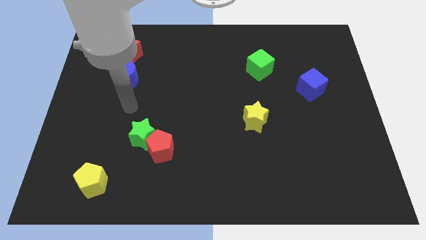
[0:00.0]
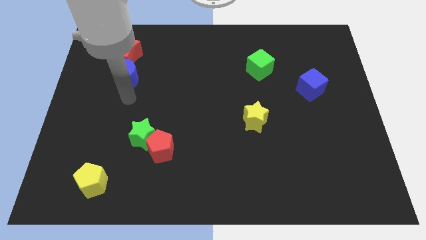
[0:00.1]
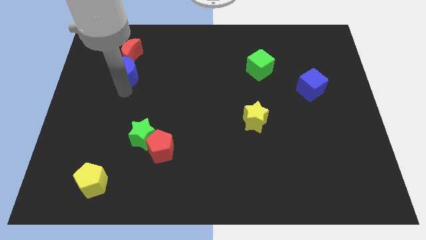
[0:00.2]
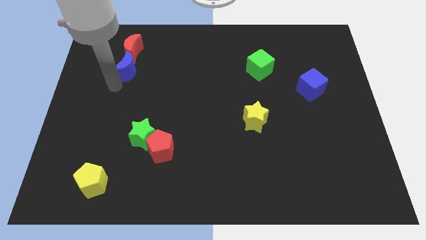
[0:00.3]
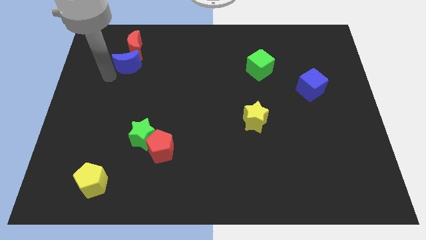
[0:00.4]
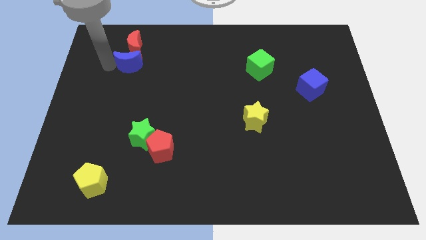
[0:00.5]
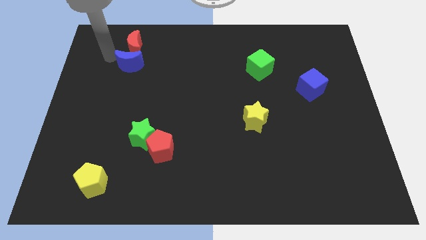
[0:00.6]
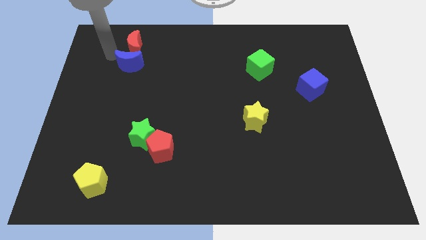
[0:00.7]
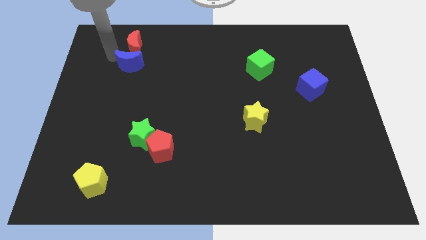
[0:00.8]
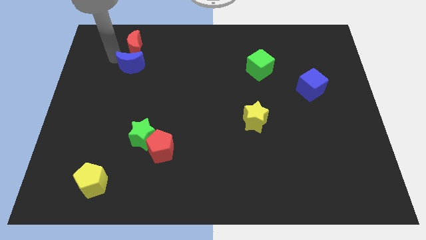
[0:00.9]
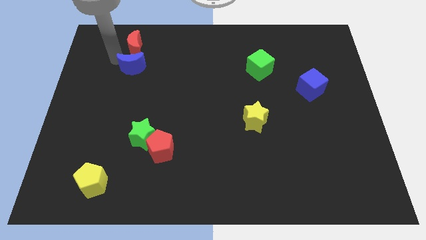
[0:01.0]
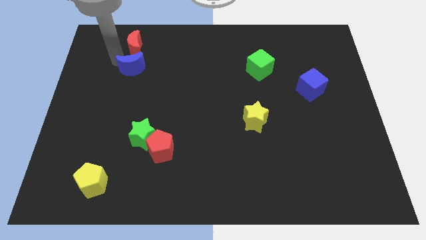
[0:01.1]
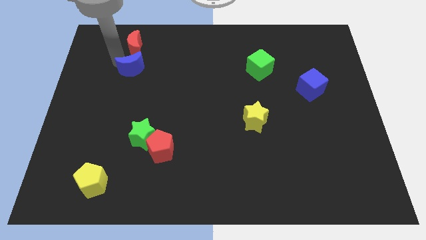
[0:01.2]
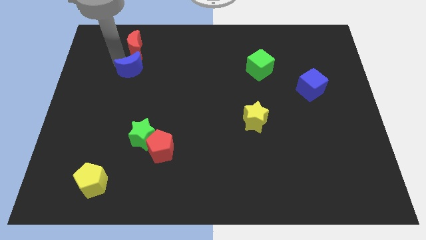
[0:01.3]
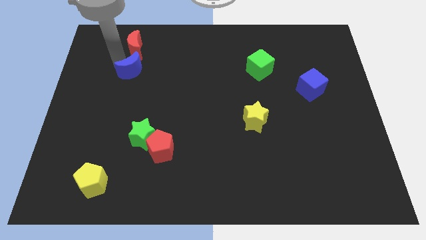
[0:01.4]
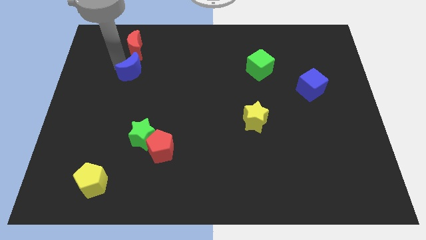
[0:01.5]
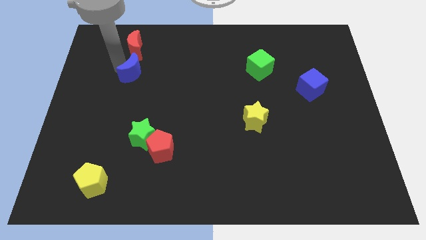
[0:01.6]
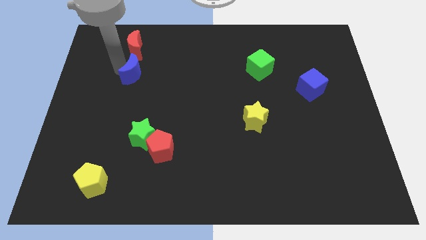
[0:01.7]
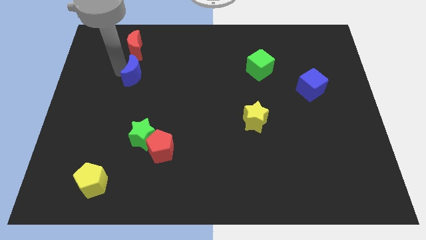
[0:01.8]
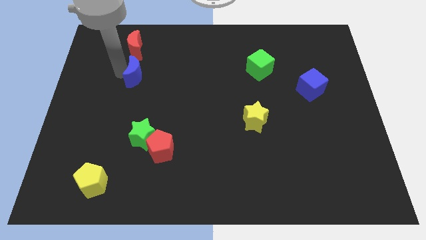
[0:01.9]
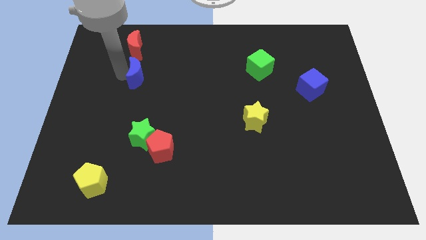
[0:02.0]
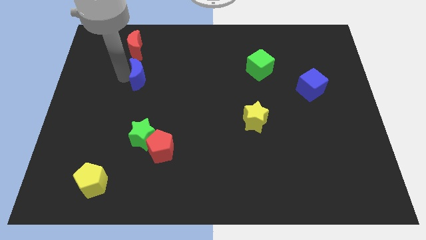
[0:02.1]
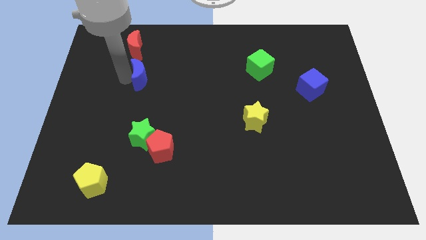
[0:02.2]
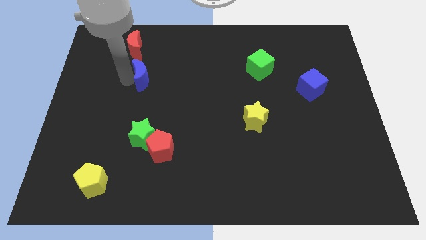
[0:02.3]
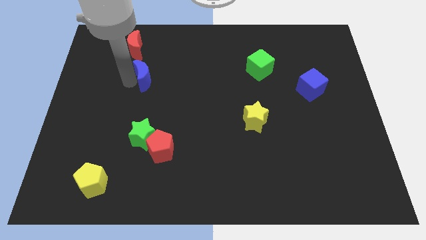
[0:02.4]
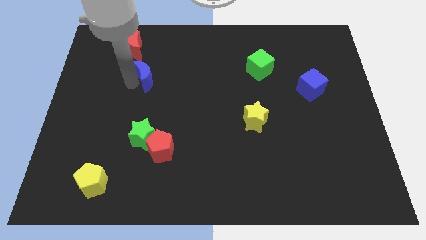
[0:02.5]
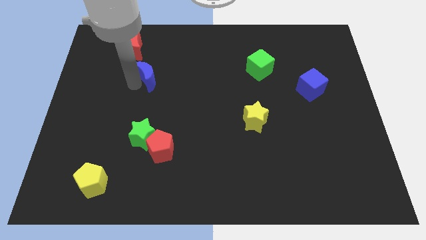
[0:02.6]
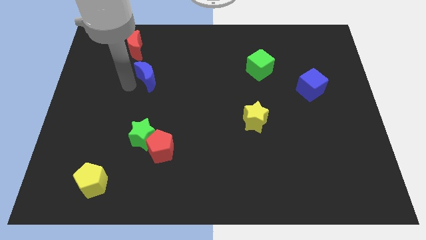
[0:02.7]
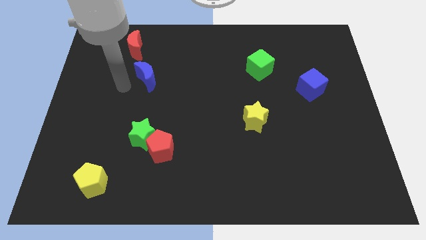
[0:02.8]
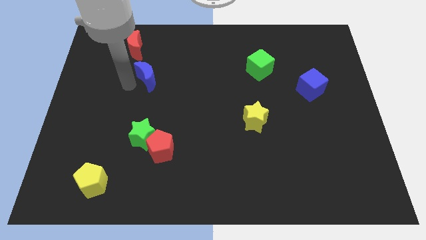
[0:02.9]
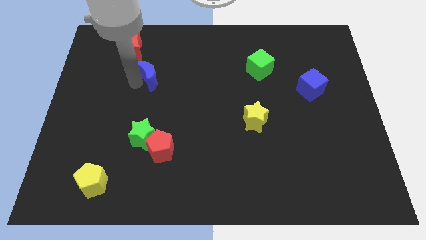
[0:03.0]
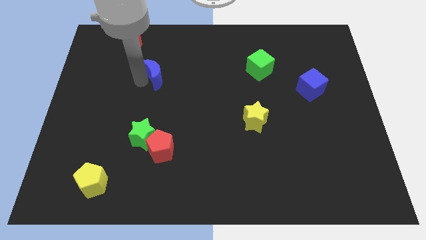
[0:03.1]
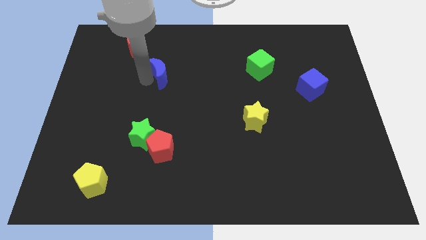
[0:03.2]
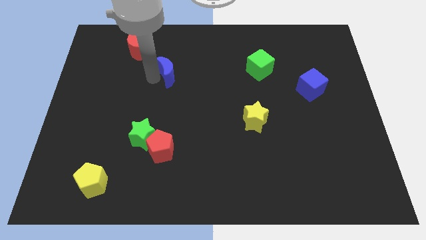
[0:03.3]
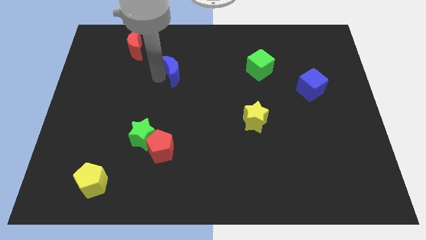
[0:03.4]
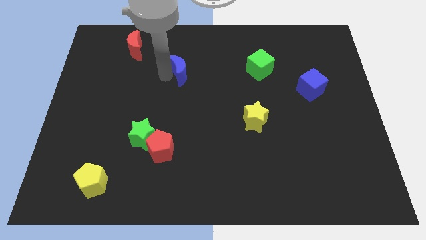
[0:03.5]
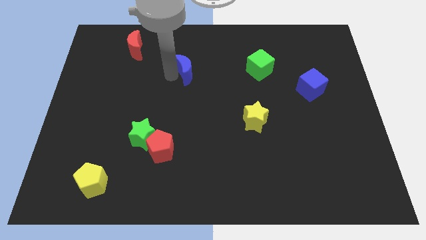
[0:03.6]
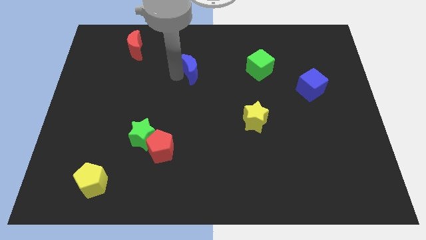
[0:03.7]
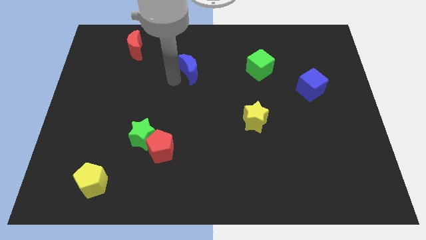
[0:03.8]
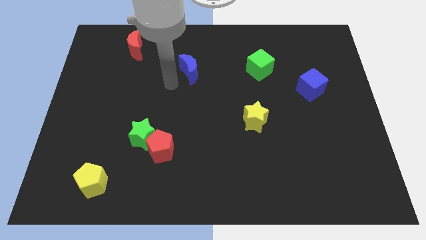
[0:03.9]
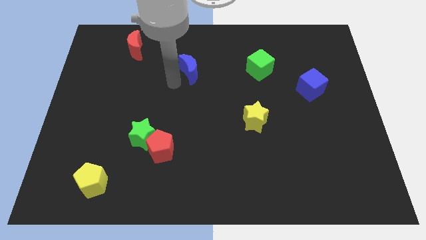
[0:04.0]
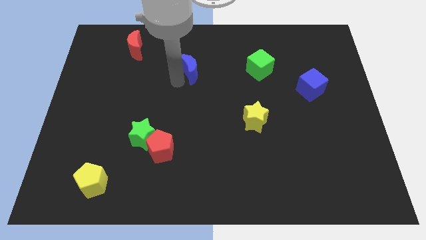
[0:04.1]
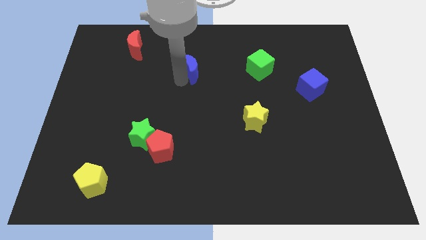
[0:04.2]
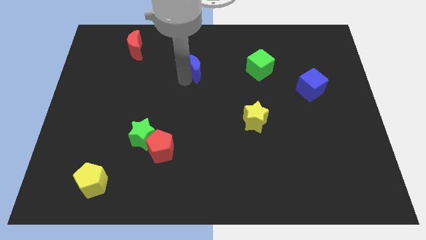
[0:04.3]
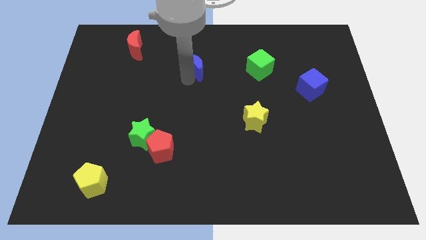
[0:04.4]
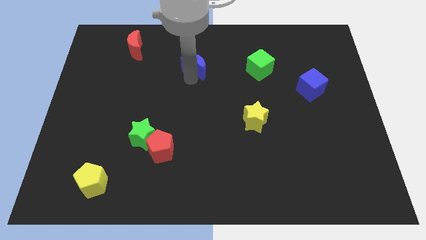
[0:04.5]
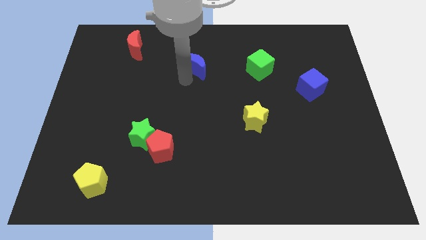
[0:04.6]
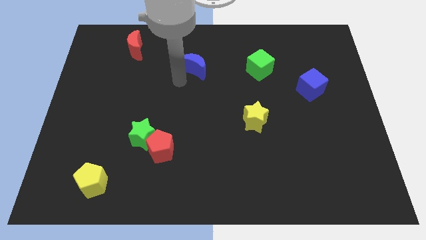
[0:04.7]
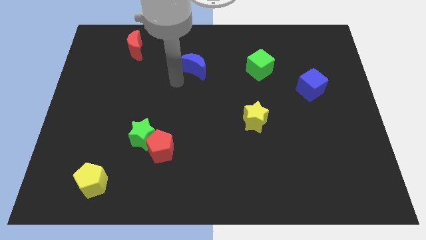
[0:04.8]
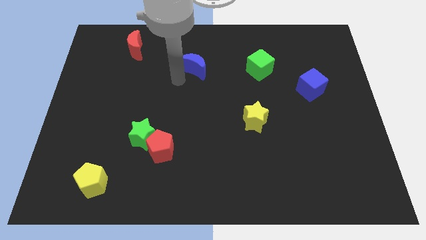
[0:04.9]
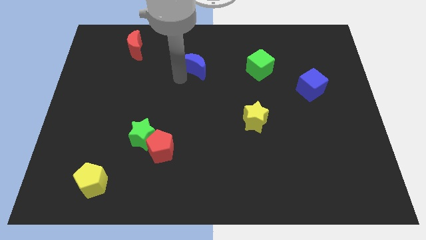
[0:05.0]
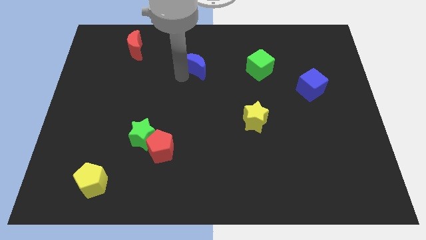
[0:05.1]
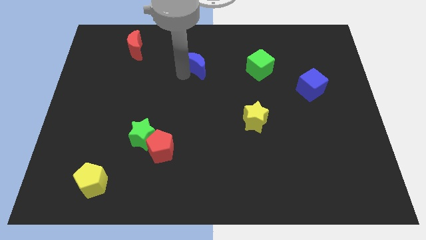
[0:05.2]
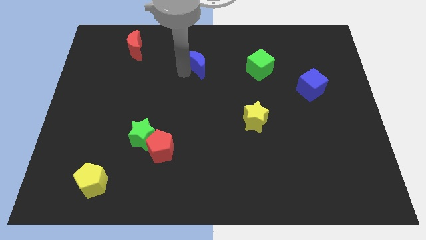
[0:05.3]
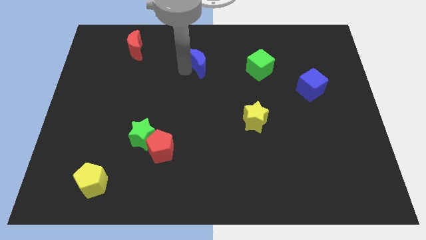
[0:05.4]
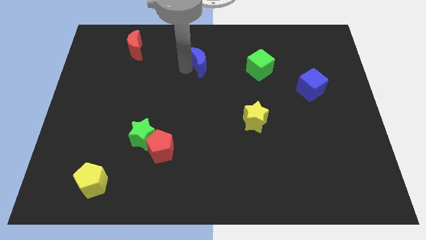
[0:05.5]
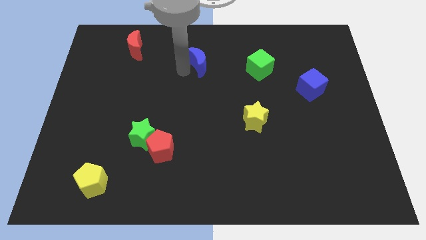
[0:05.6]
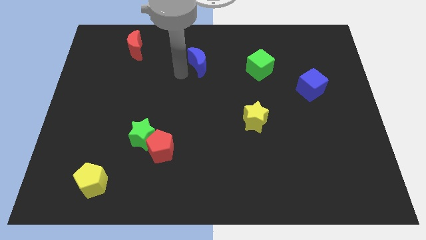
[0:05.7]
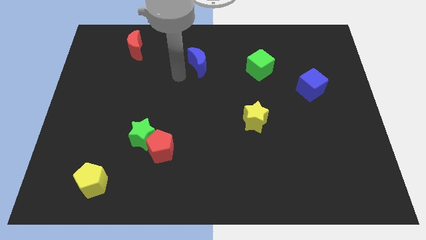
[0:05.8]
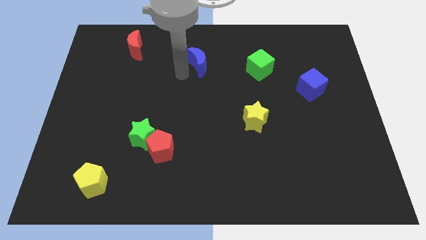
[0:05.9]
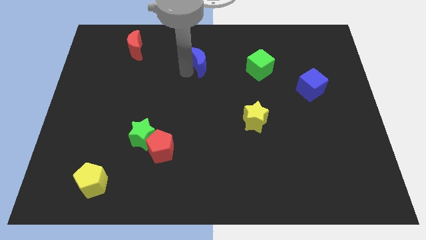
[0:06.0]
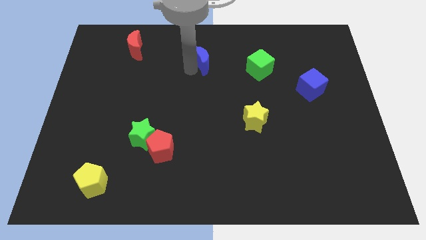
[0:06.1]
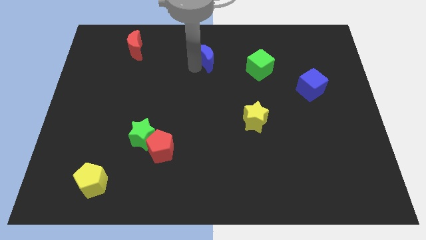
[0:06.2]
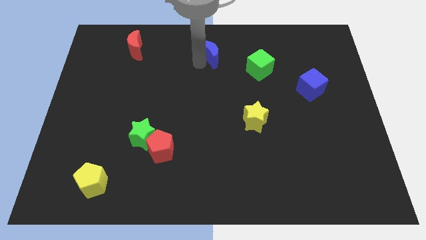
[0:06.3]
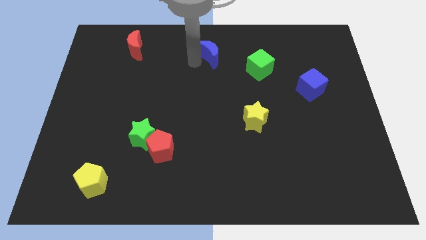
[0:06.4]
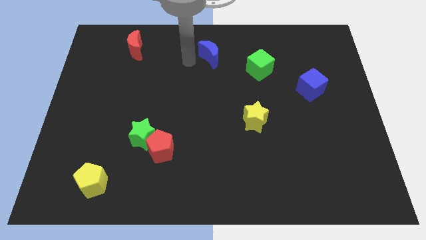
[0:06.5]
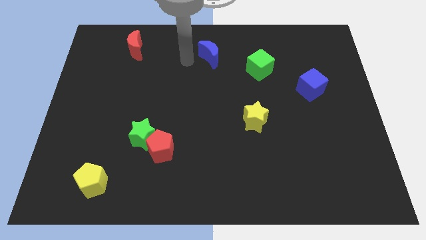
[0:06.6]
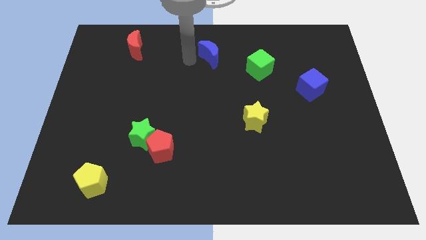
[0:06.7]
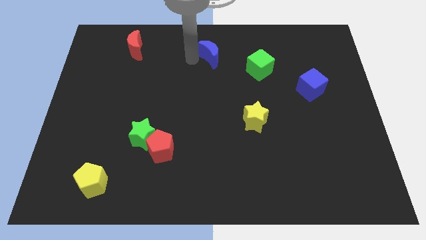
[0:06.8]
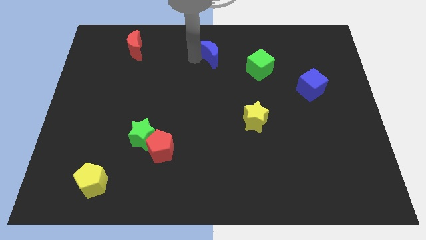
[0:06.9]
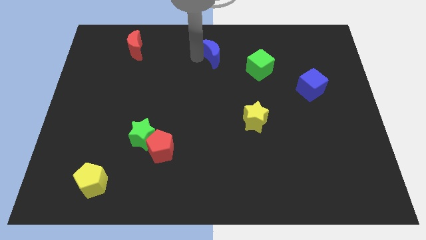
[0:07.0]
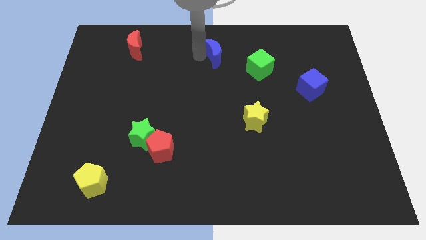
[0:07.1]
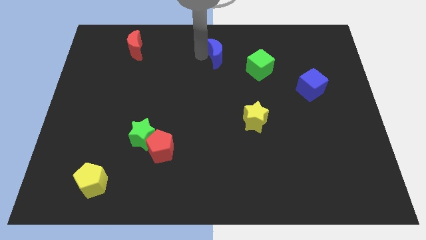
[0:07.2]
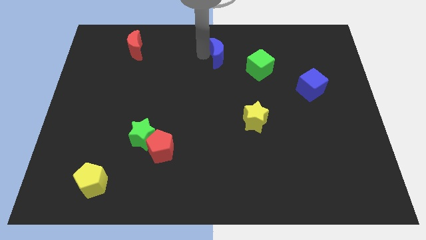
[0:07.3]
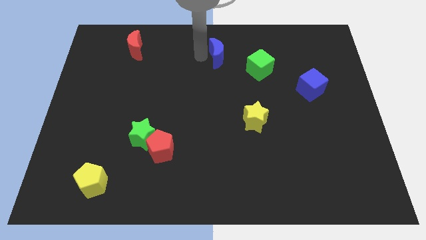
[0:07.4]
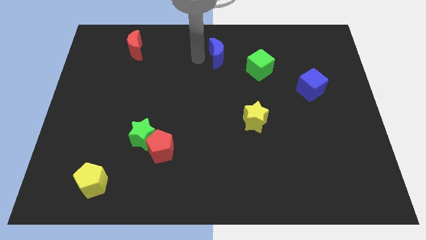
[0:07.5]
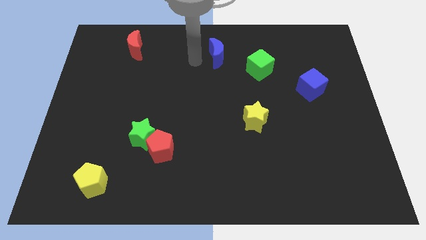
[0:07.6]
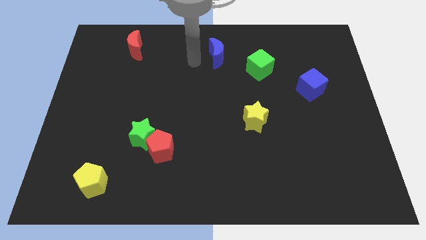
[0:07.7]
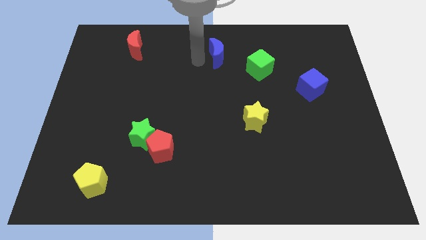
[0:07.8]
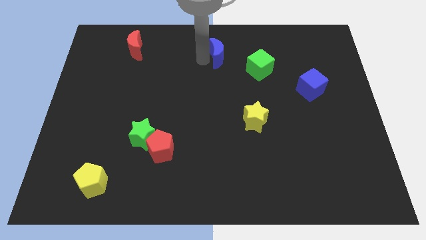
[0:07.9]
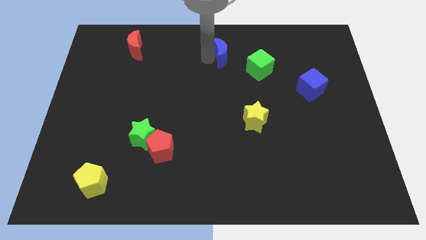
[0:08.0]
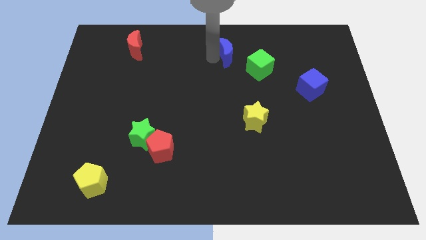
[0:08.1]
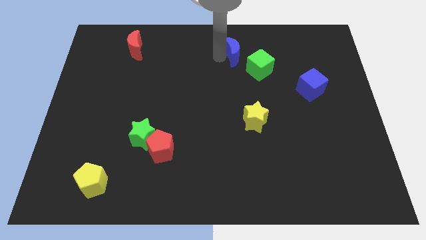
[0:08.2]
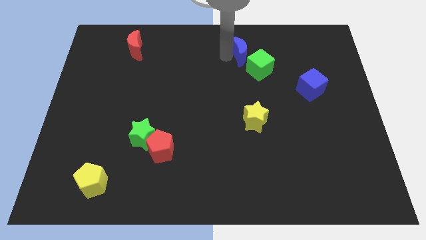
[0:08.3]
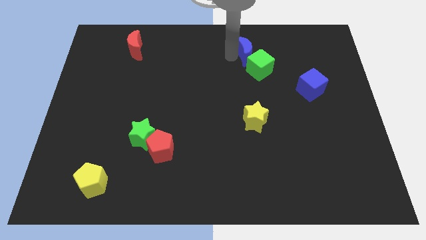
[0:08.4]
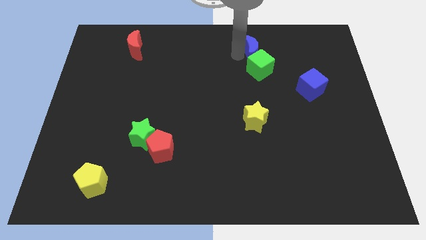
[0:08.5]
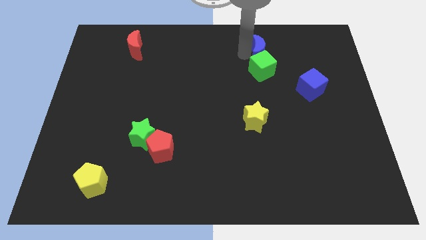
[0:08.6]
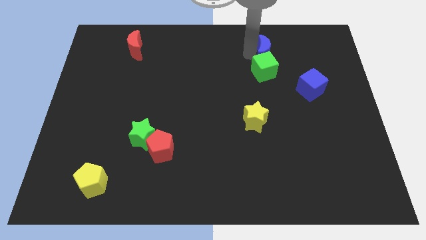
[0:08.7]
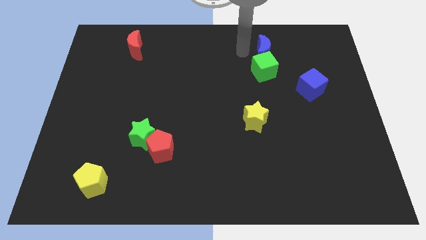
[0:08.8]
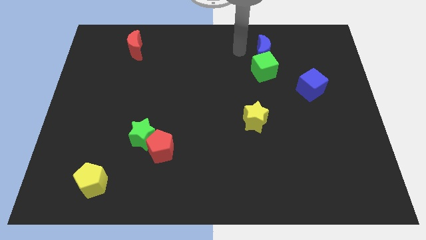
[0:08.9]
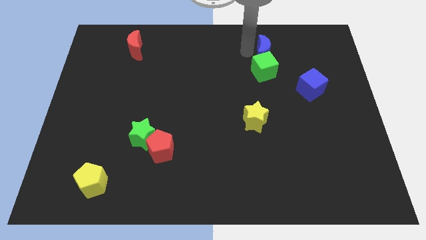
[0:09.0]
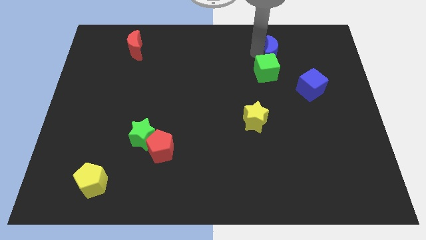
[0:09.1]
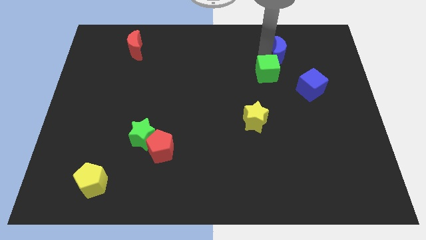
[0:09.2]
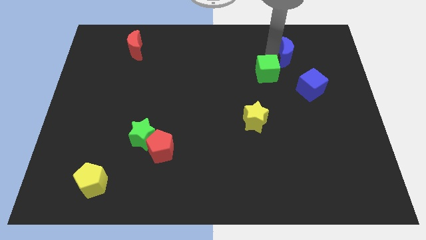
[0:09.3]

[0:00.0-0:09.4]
slide the blue moon above the blue cube
